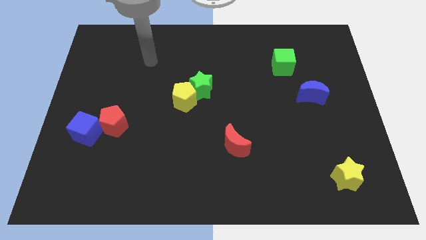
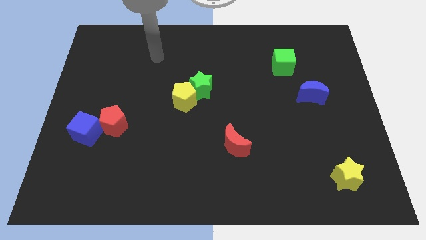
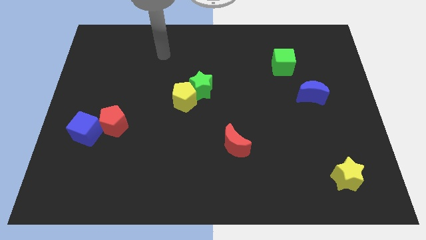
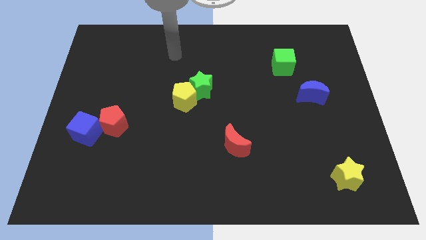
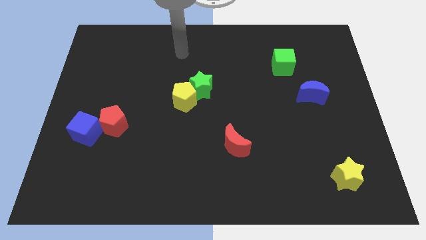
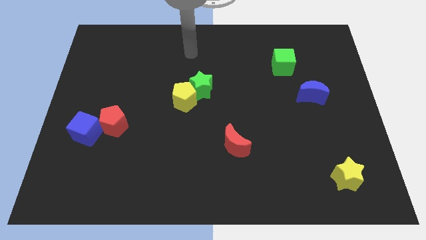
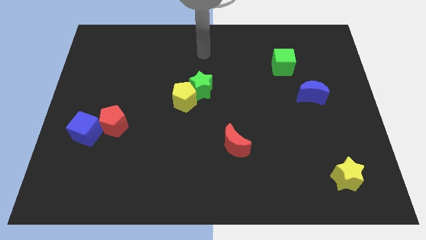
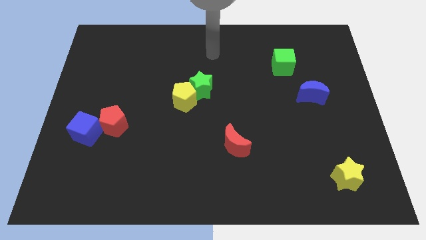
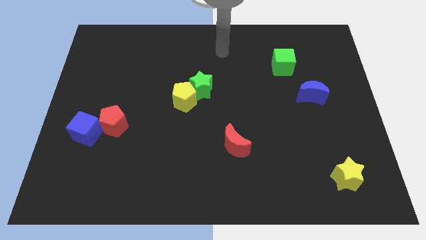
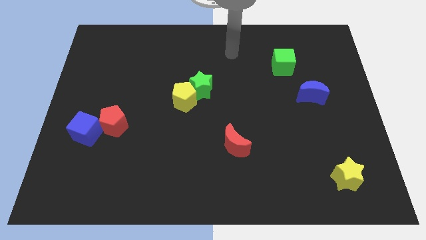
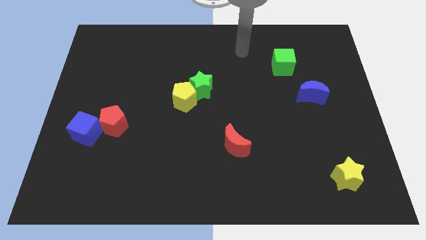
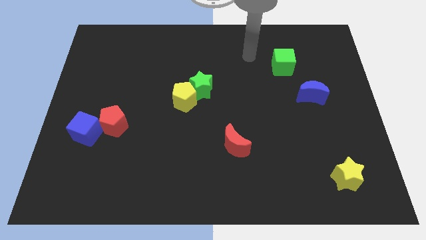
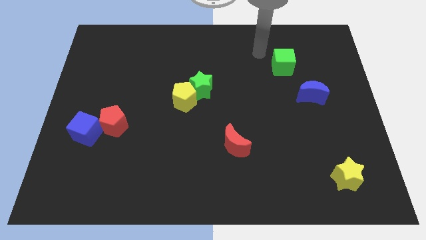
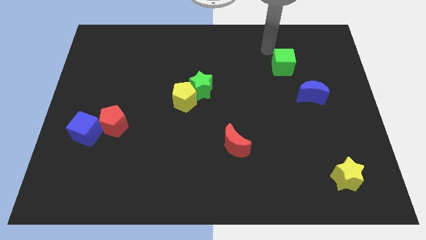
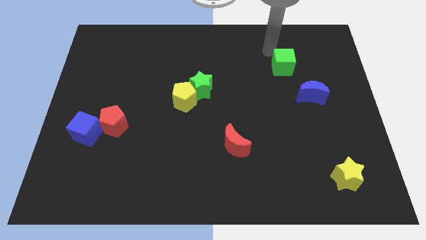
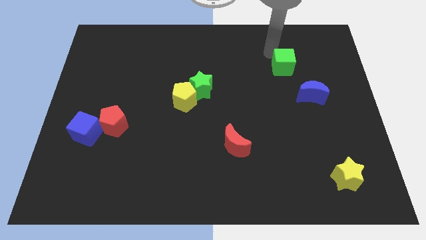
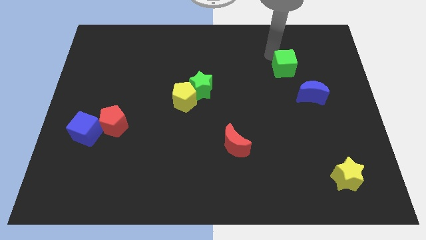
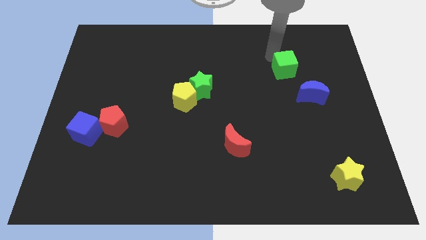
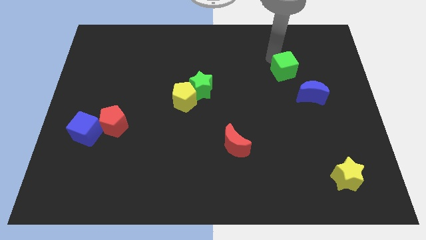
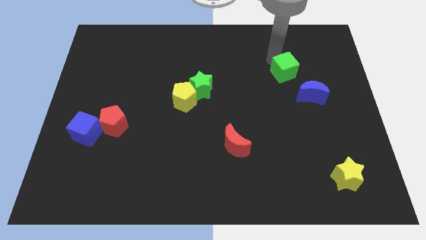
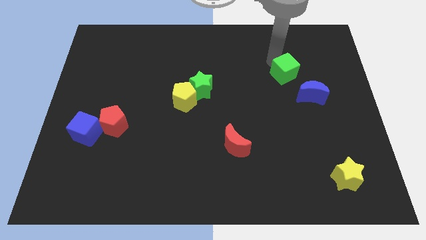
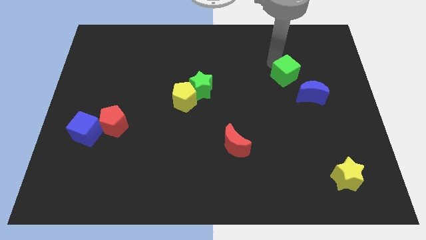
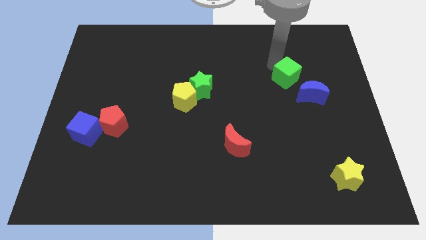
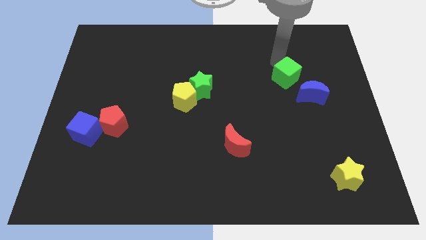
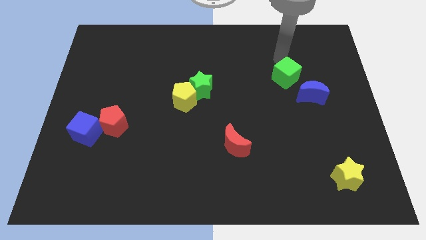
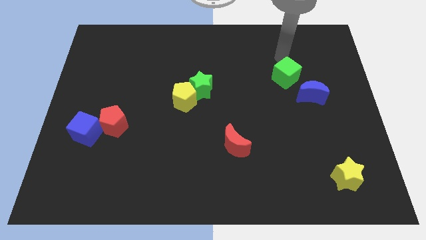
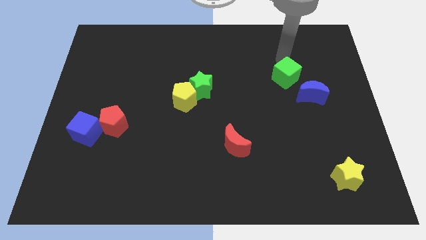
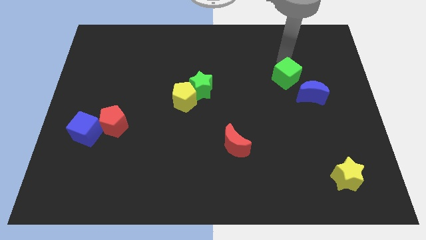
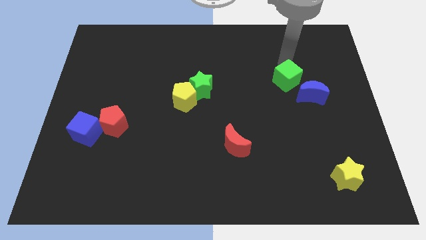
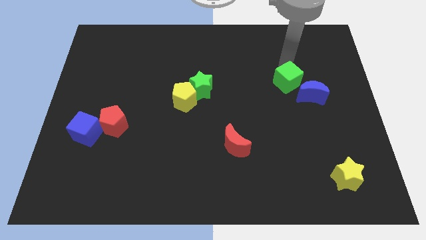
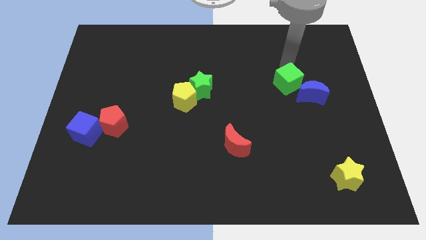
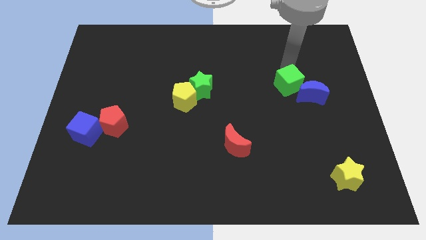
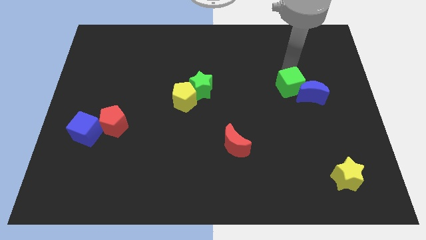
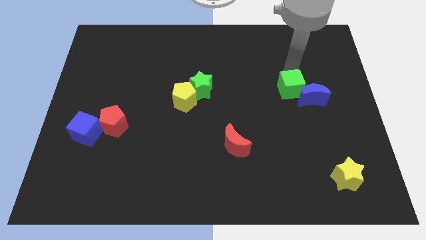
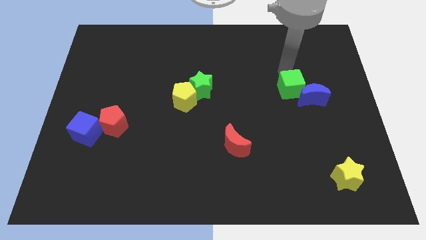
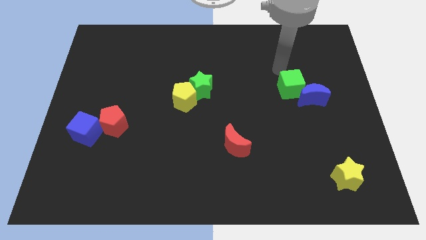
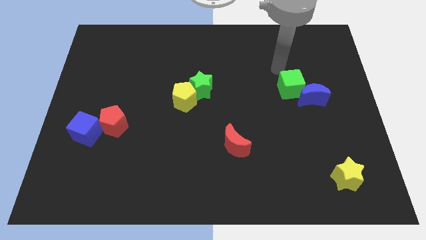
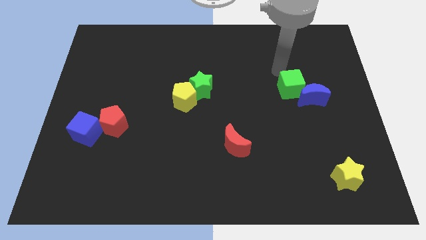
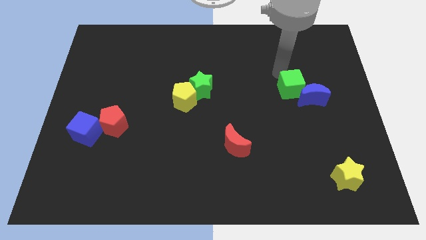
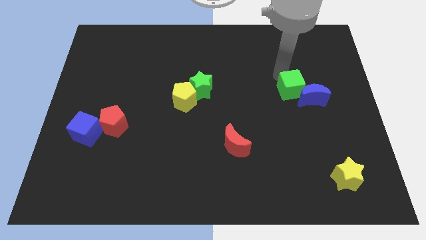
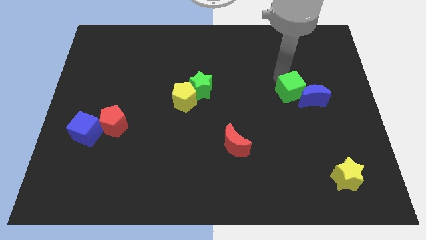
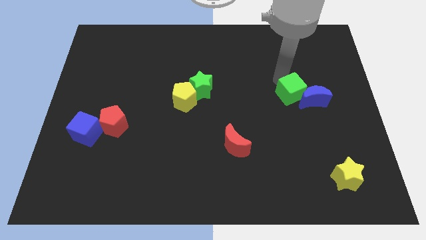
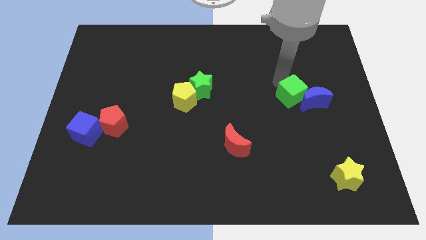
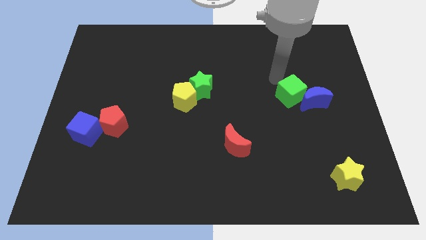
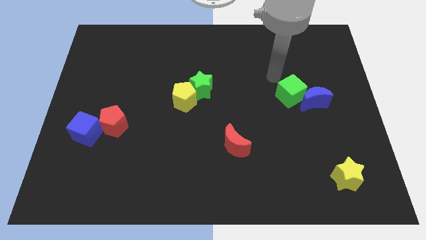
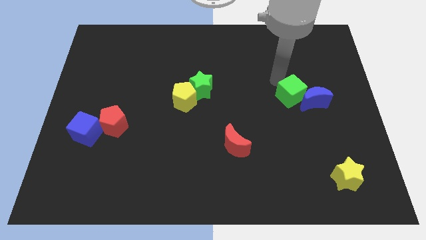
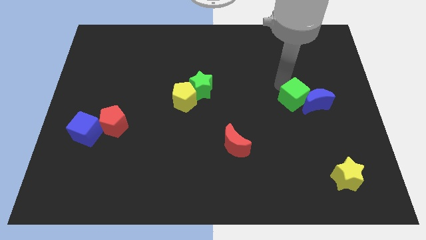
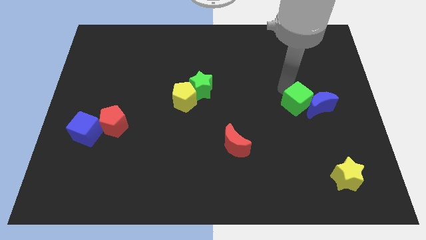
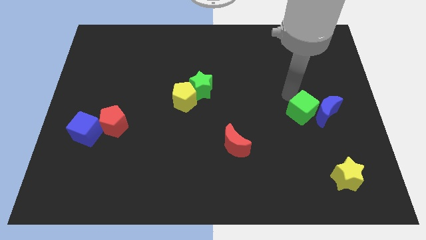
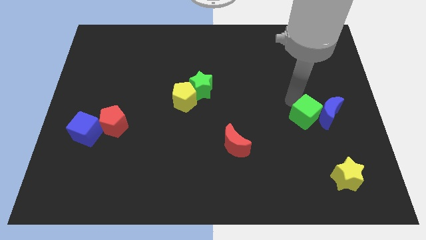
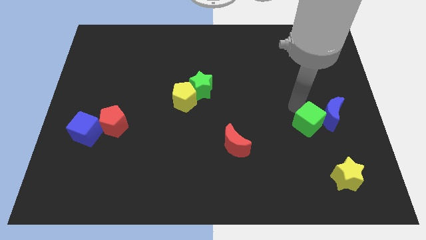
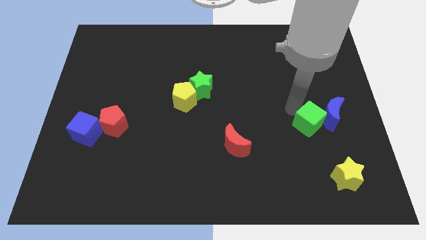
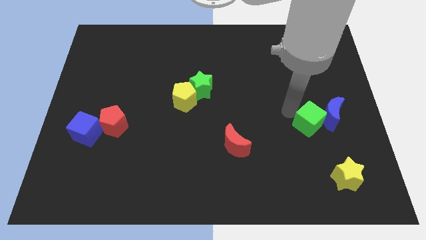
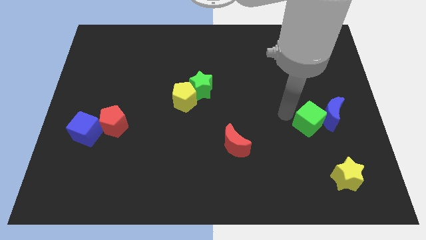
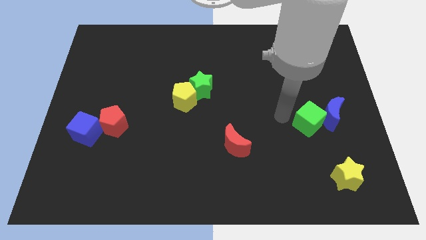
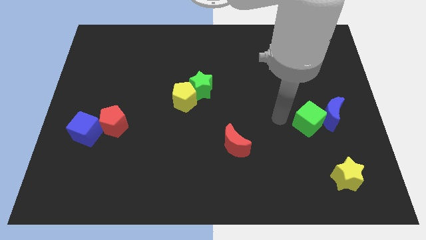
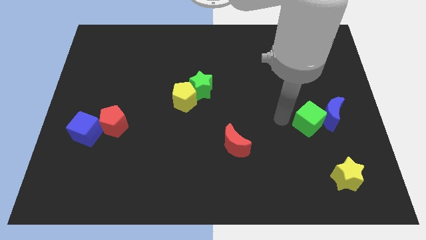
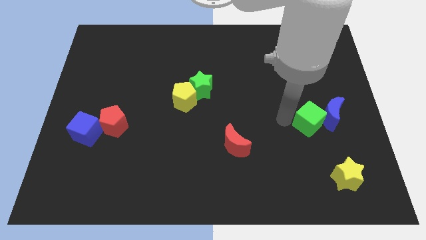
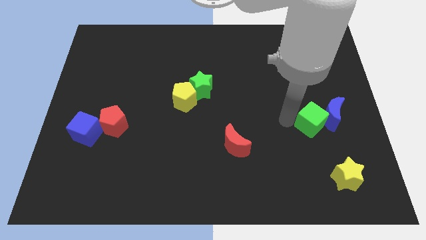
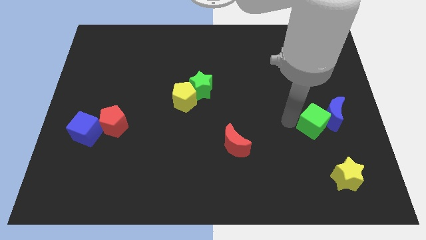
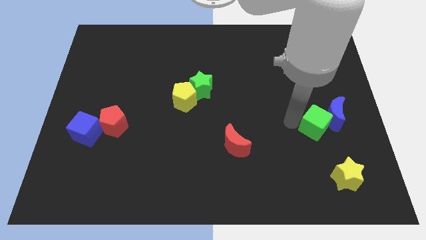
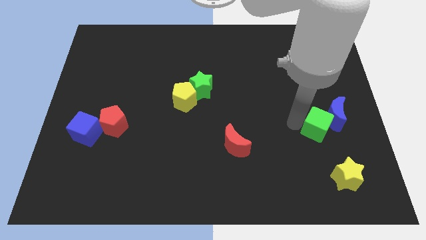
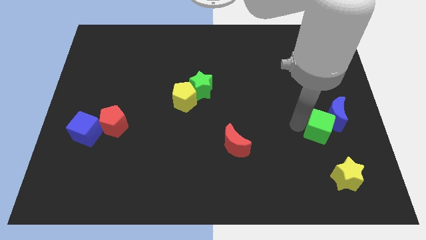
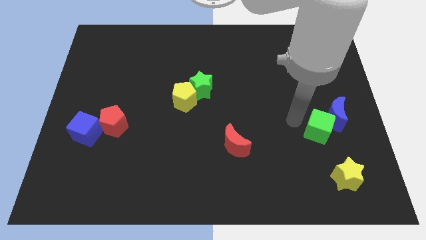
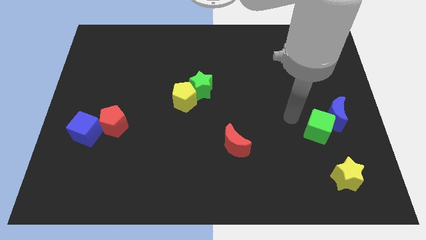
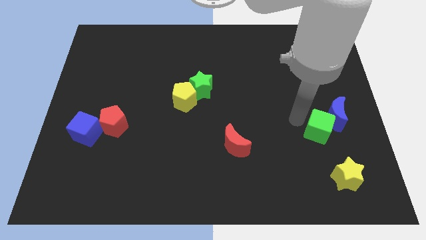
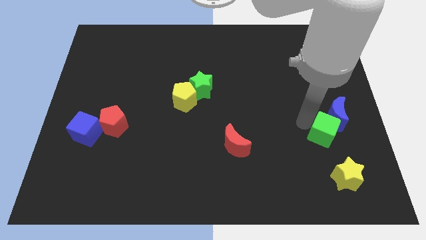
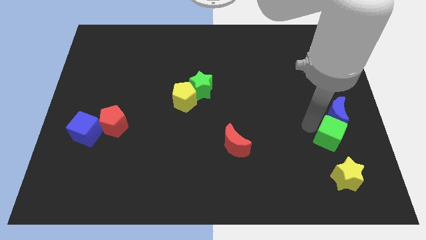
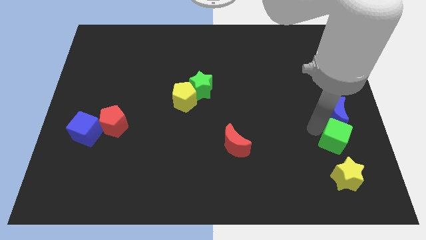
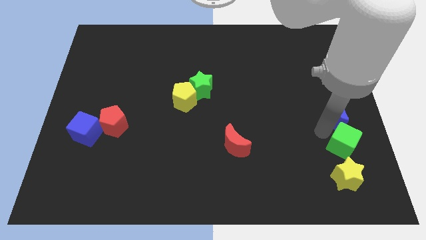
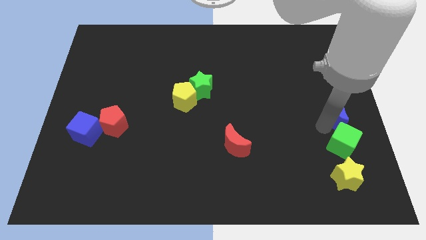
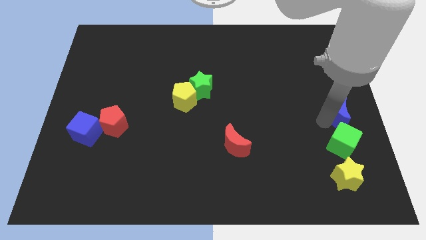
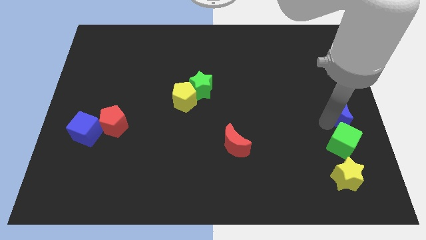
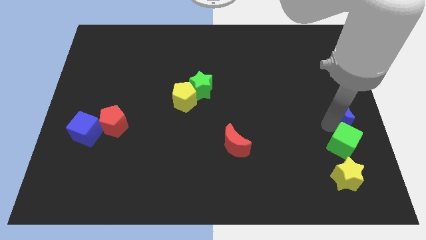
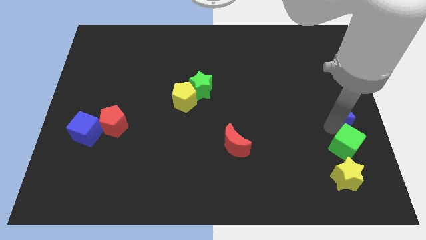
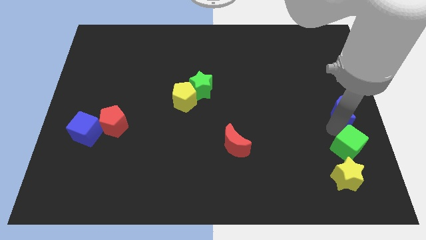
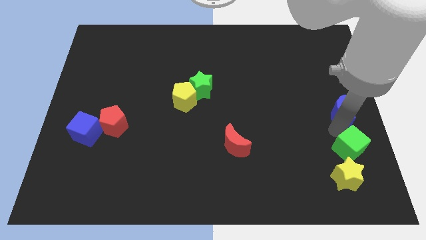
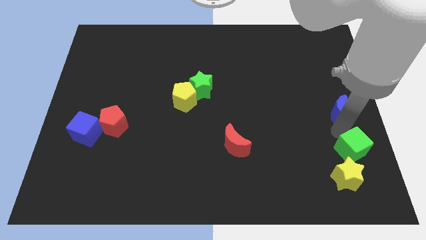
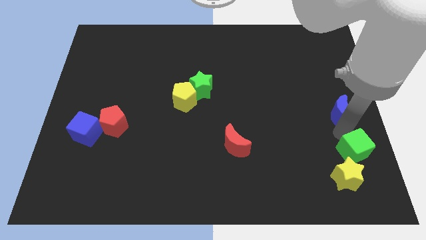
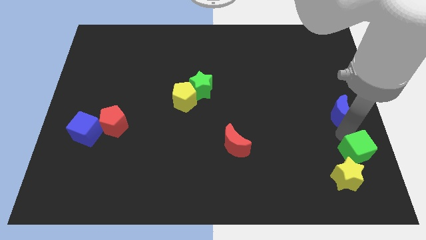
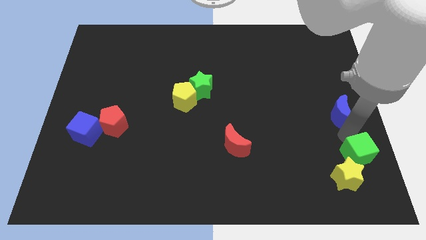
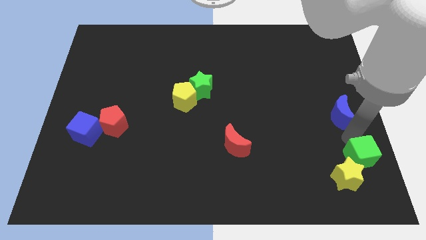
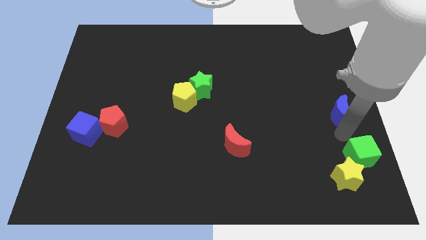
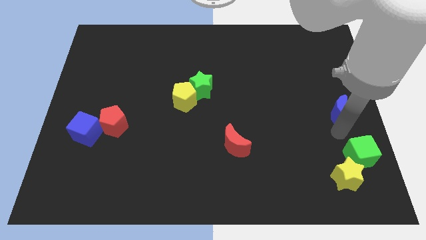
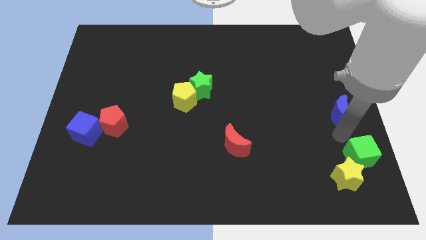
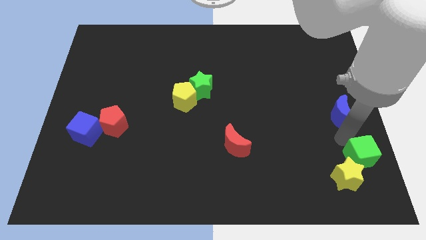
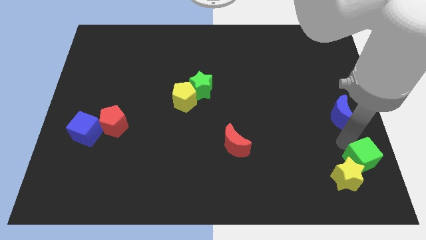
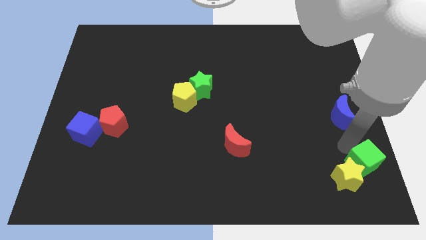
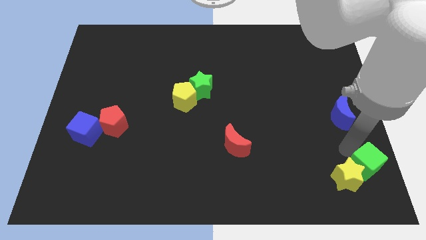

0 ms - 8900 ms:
move the green cube to the lower right corner
